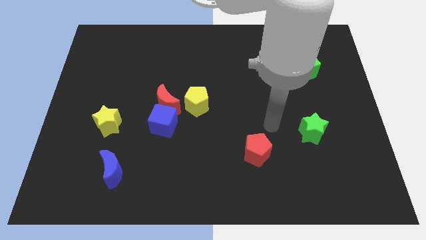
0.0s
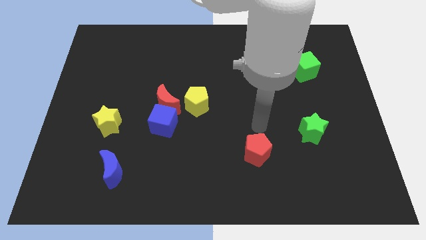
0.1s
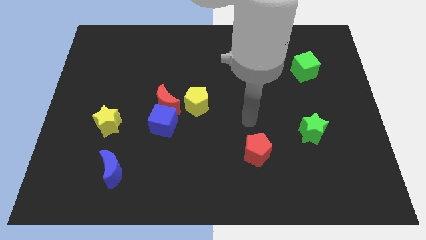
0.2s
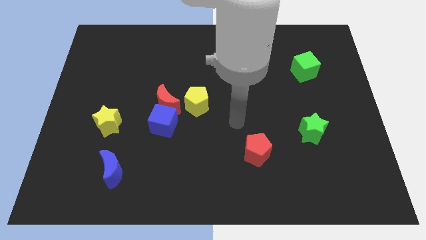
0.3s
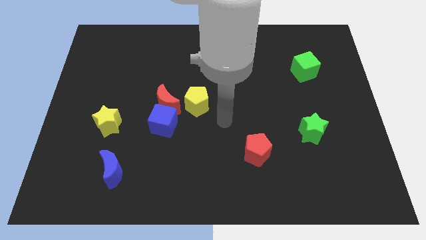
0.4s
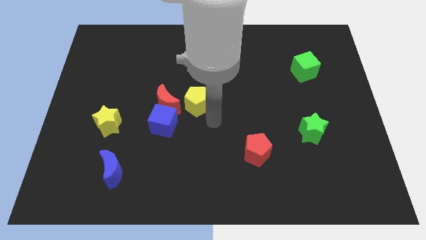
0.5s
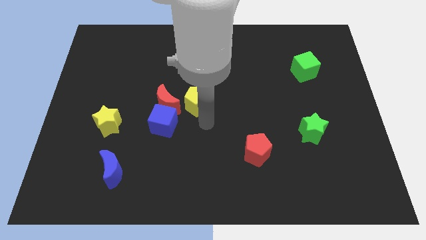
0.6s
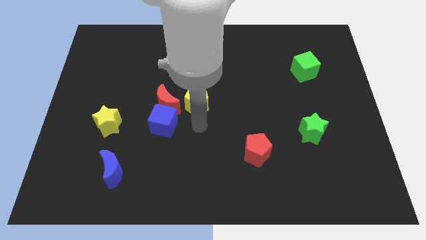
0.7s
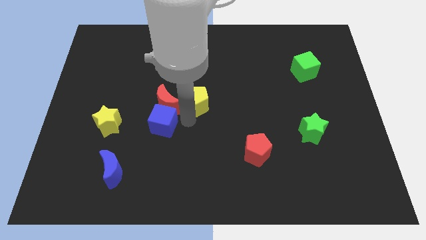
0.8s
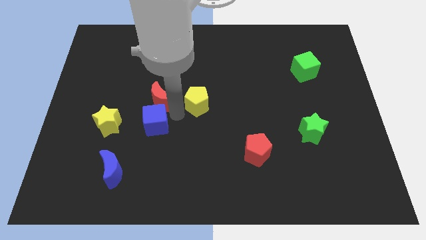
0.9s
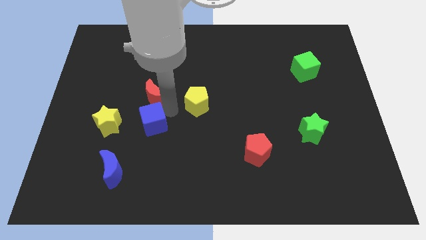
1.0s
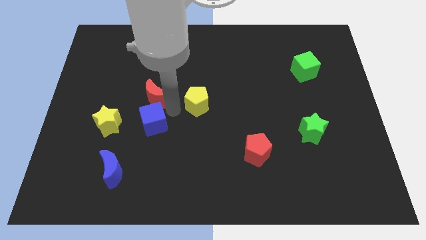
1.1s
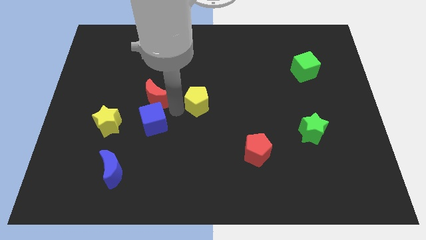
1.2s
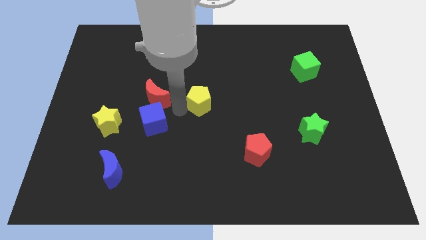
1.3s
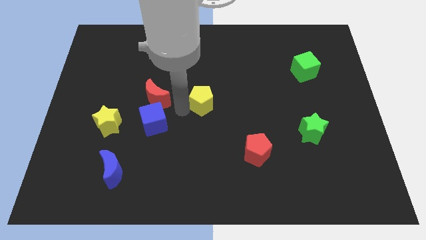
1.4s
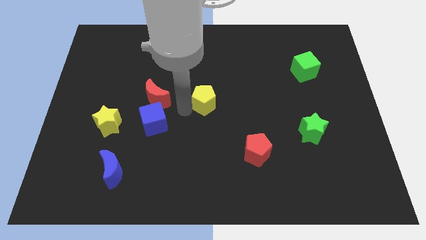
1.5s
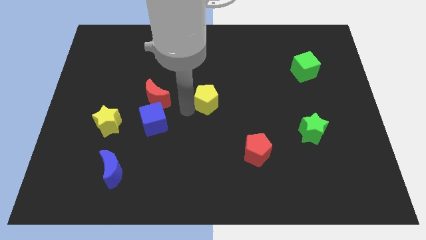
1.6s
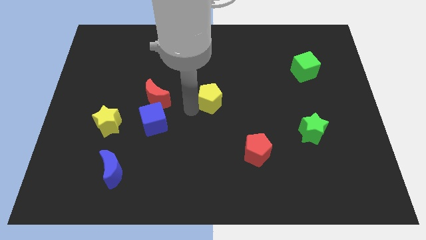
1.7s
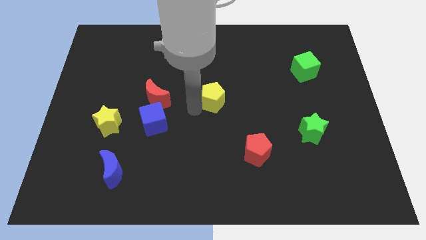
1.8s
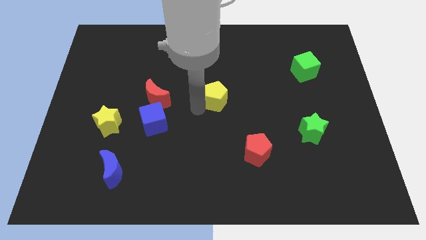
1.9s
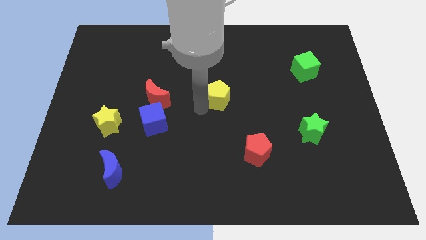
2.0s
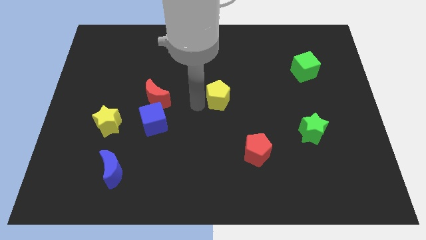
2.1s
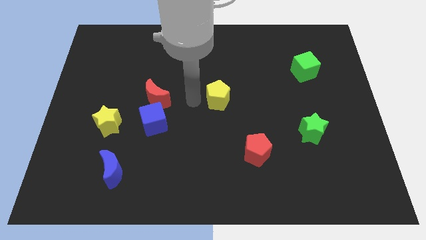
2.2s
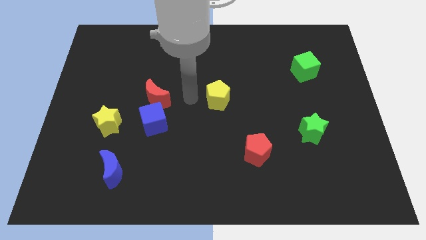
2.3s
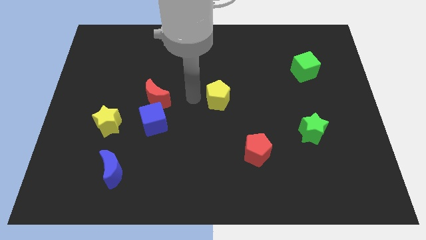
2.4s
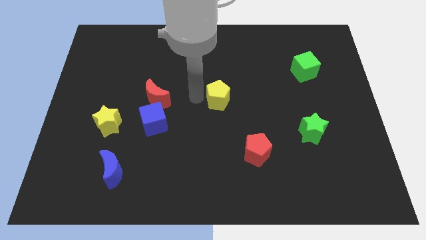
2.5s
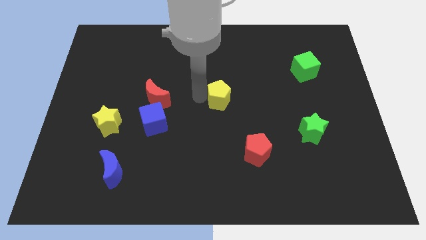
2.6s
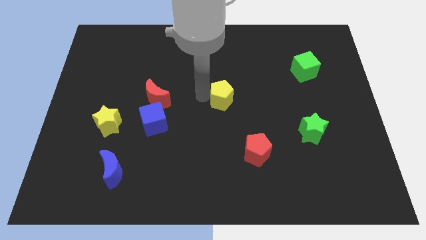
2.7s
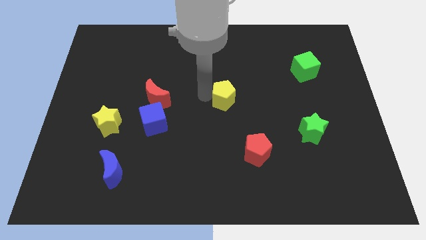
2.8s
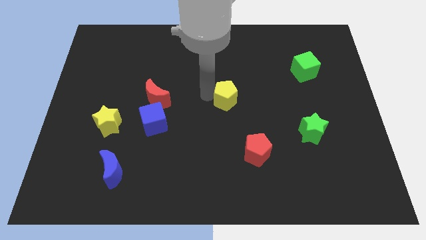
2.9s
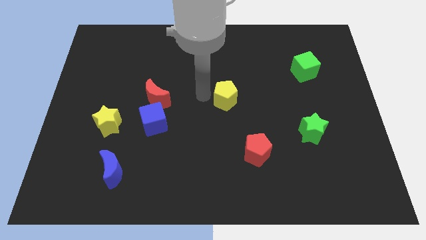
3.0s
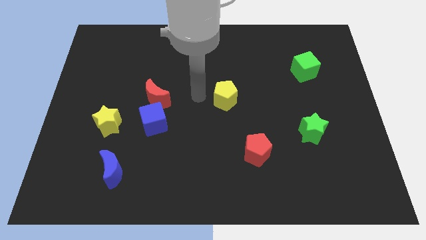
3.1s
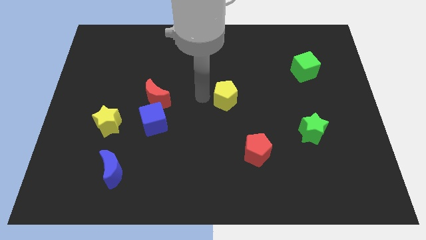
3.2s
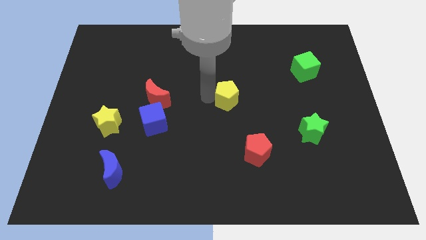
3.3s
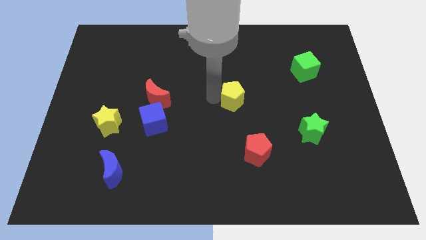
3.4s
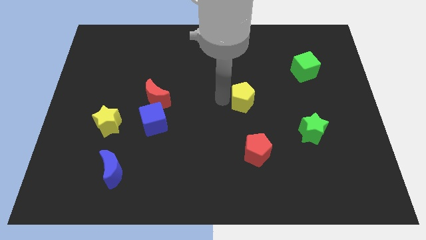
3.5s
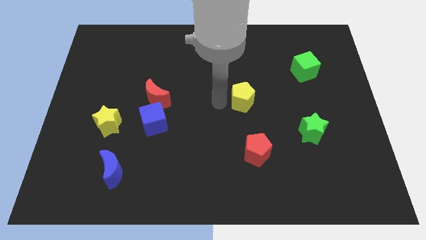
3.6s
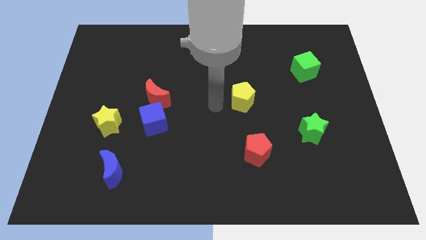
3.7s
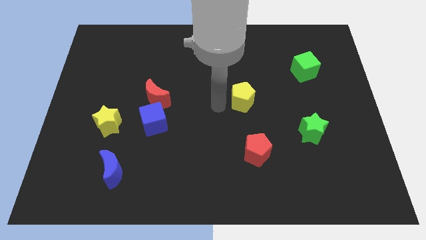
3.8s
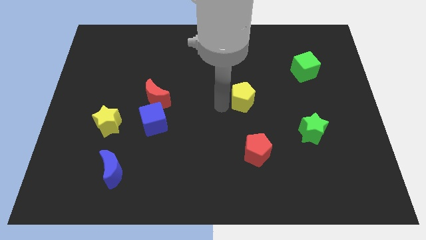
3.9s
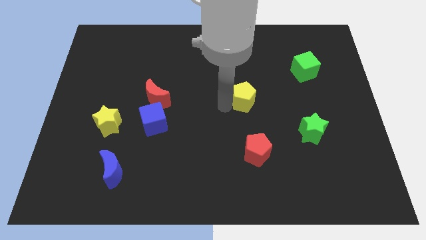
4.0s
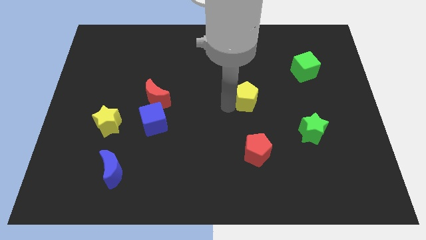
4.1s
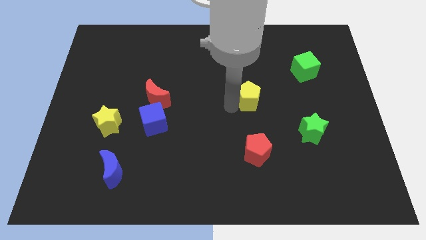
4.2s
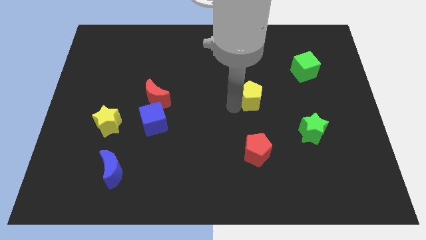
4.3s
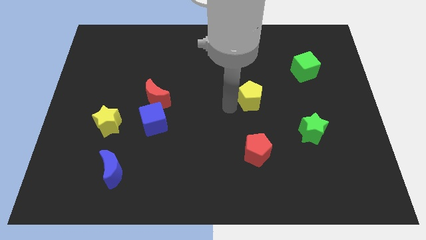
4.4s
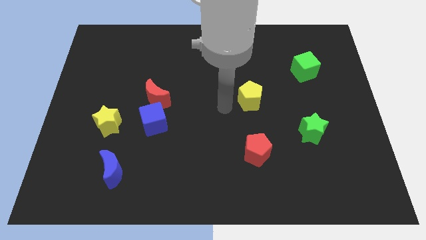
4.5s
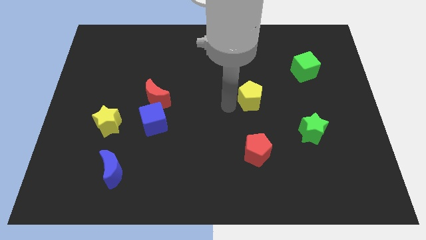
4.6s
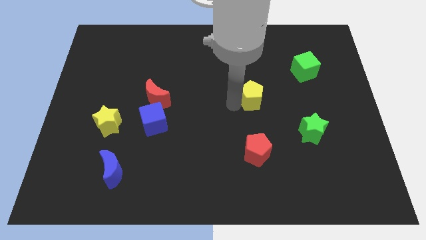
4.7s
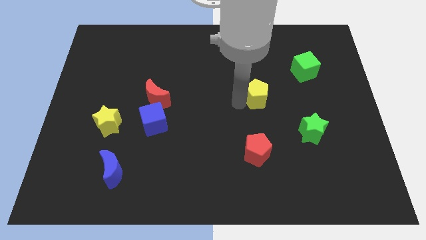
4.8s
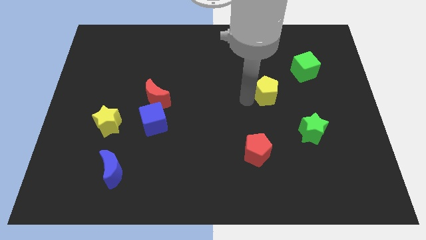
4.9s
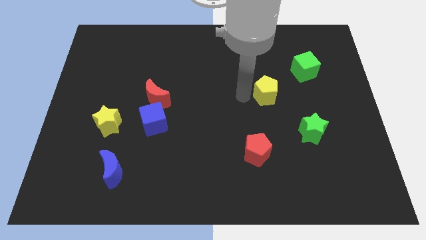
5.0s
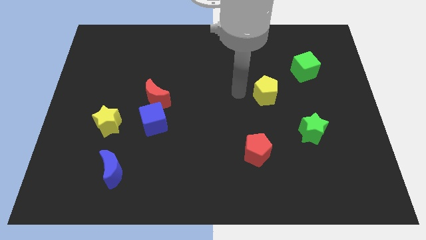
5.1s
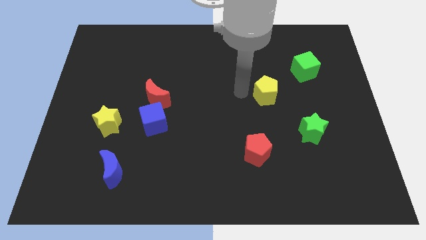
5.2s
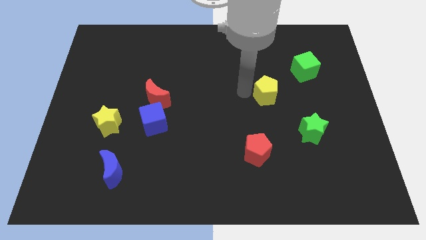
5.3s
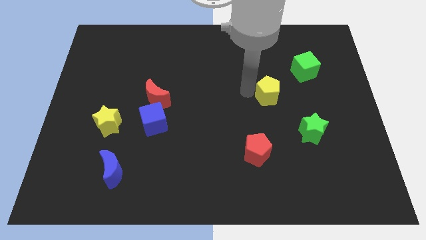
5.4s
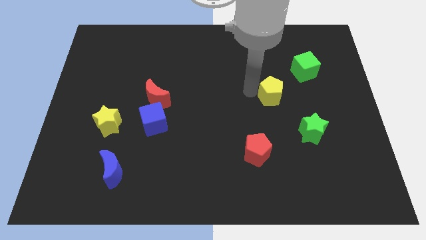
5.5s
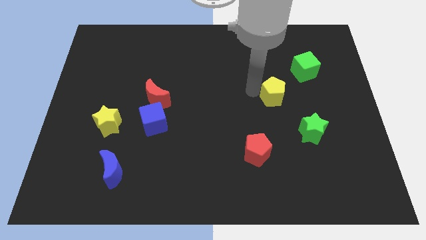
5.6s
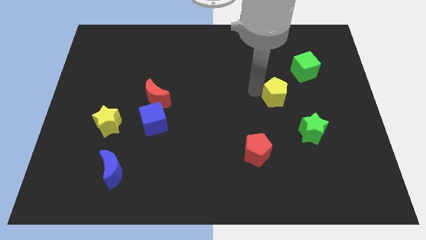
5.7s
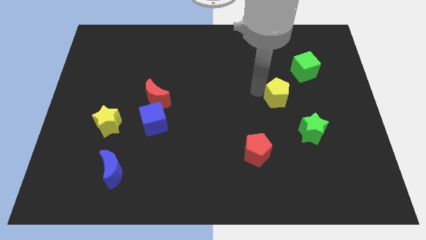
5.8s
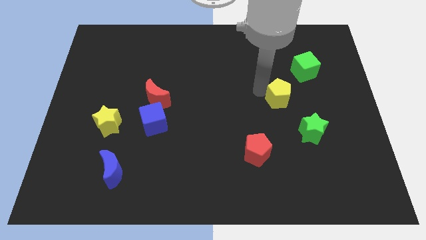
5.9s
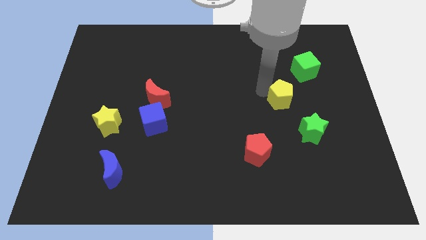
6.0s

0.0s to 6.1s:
move the yellow pentagon right

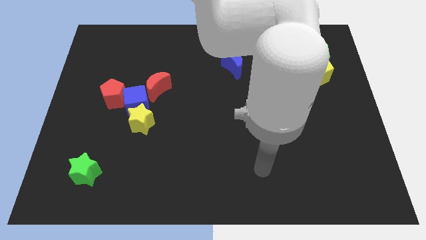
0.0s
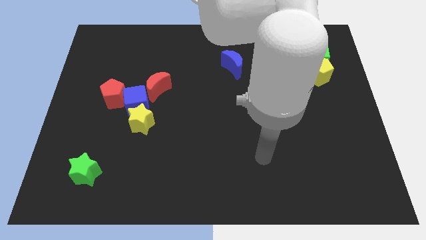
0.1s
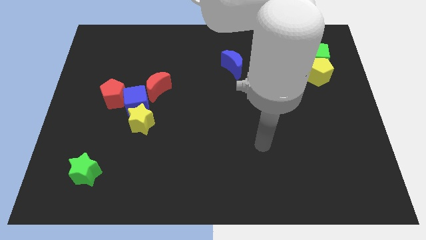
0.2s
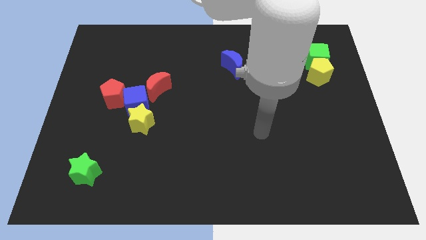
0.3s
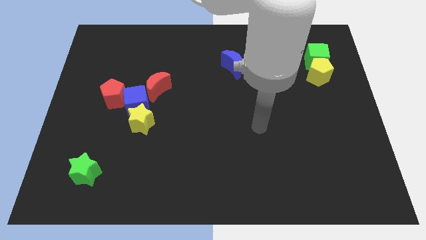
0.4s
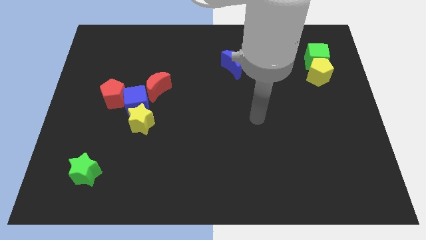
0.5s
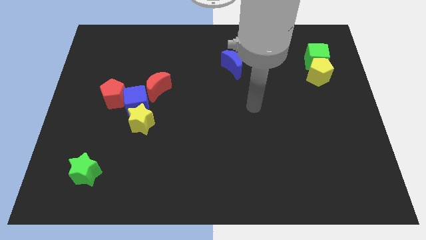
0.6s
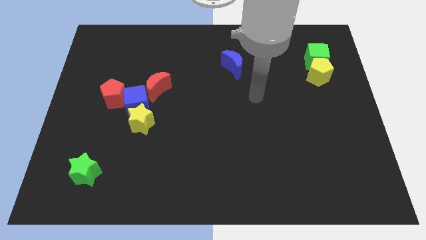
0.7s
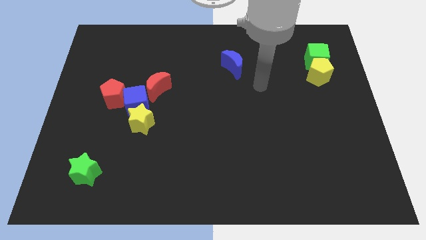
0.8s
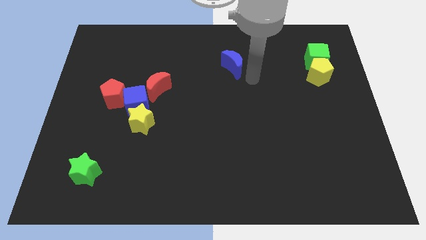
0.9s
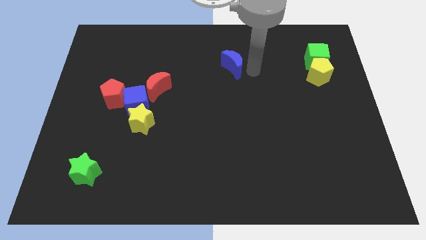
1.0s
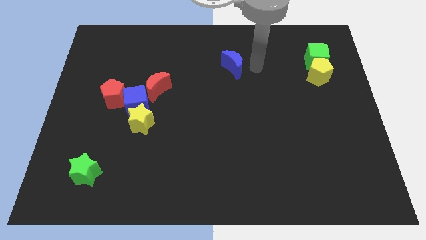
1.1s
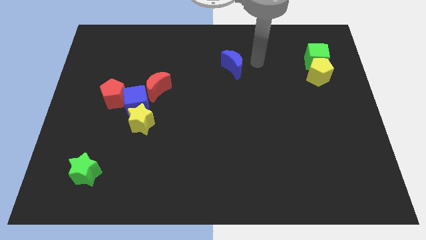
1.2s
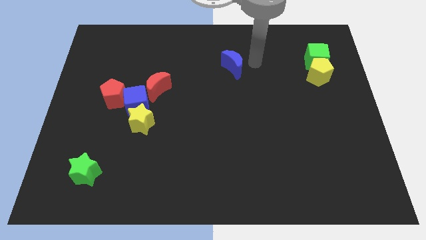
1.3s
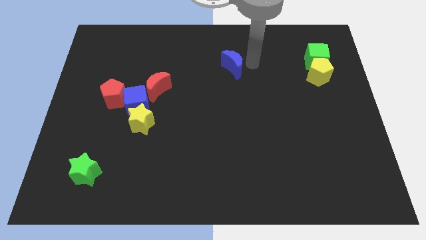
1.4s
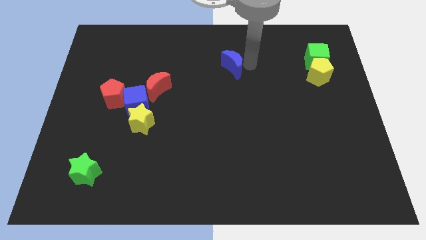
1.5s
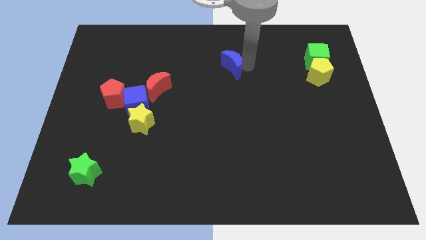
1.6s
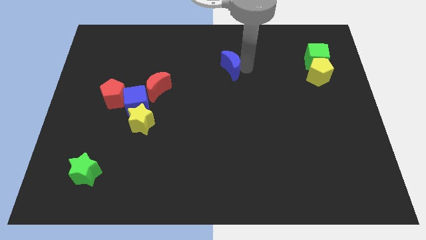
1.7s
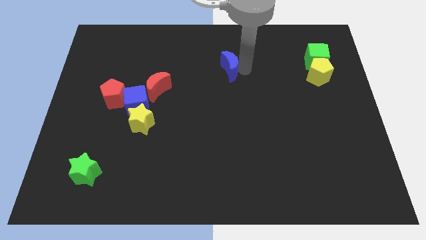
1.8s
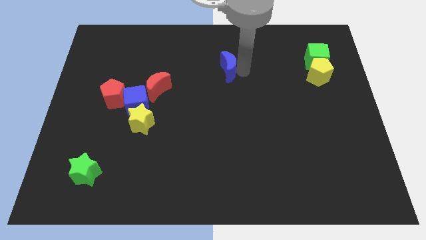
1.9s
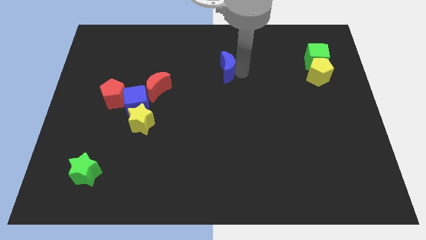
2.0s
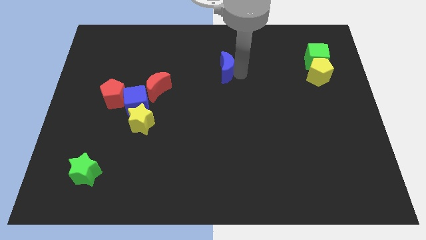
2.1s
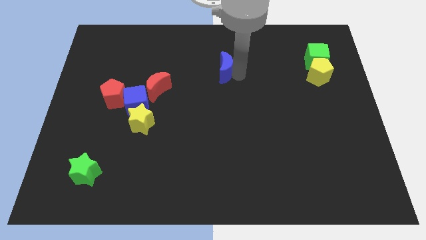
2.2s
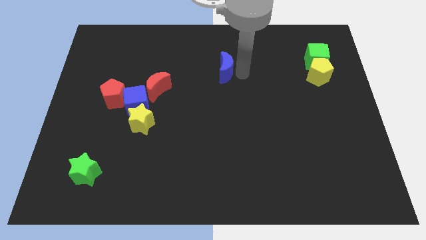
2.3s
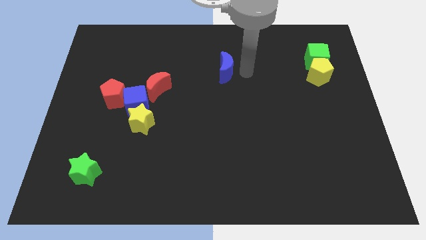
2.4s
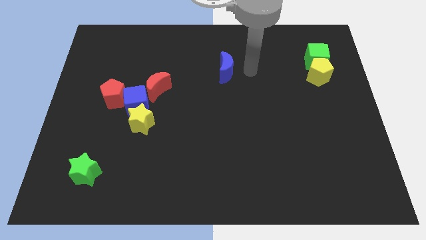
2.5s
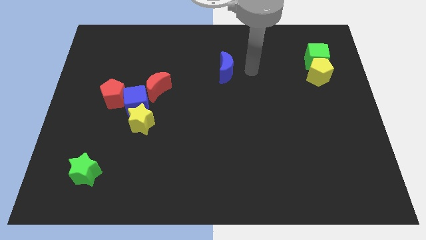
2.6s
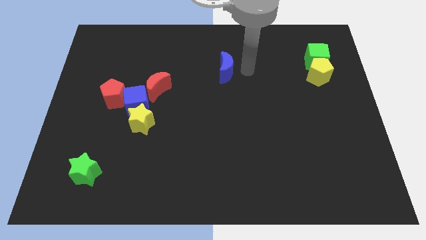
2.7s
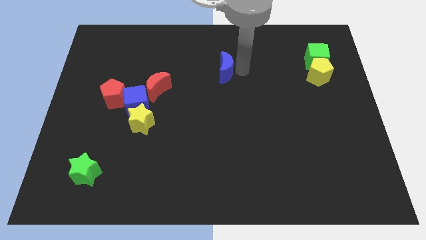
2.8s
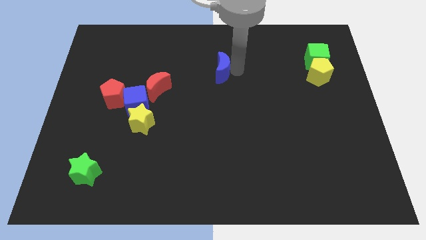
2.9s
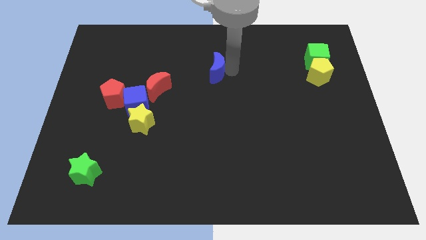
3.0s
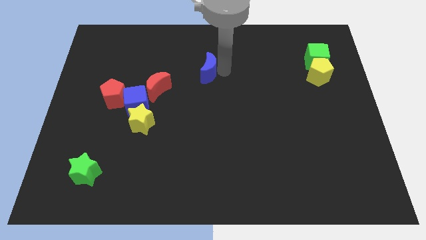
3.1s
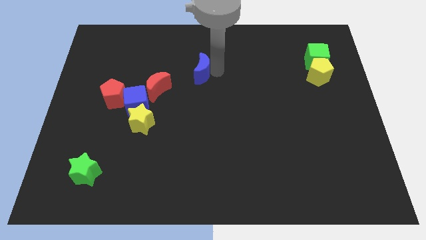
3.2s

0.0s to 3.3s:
move the blue moon a little bit left
